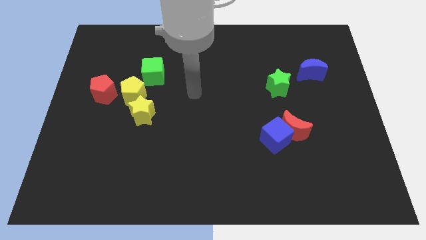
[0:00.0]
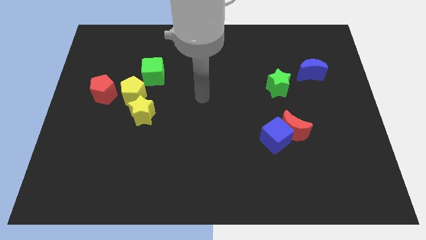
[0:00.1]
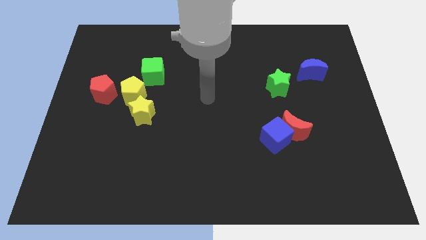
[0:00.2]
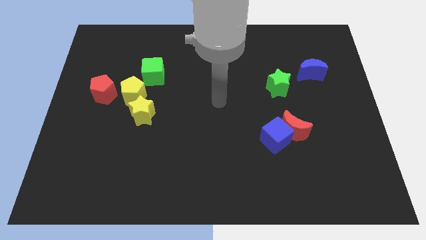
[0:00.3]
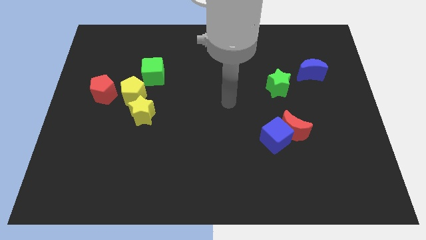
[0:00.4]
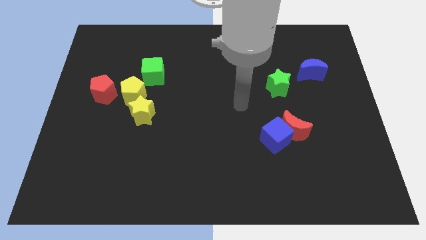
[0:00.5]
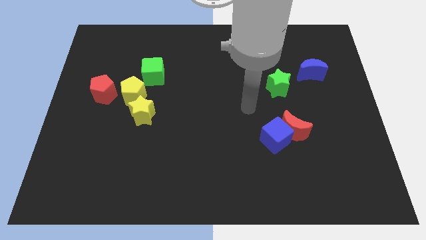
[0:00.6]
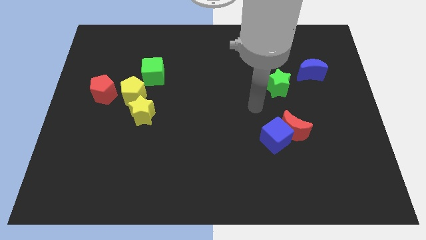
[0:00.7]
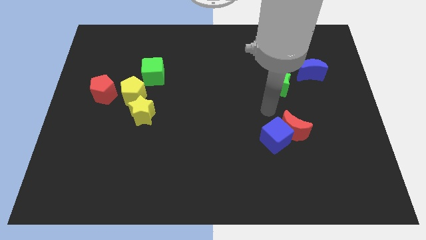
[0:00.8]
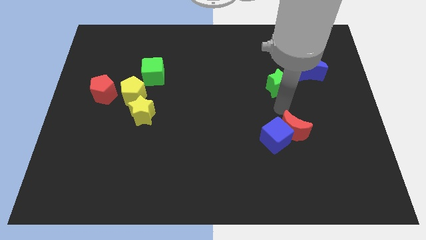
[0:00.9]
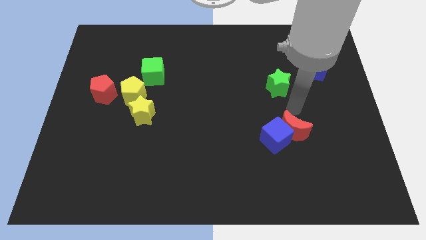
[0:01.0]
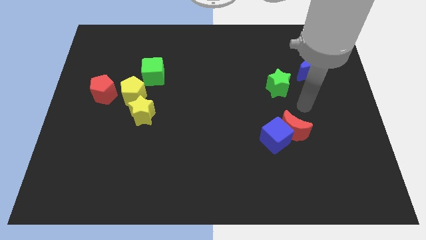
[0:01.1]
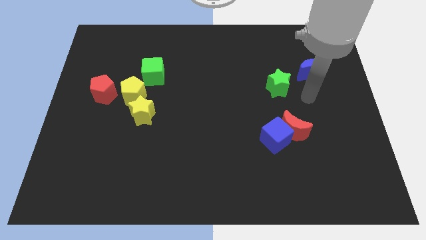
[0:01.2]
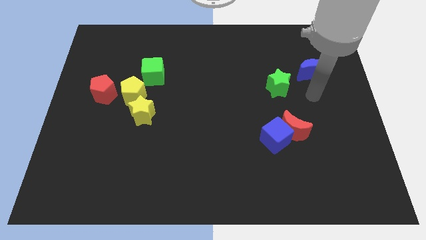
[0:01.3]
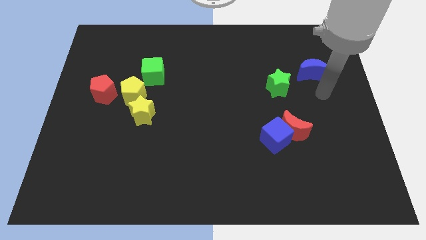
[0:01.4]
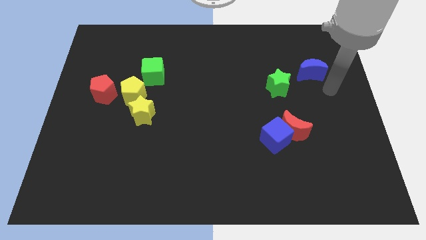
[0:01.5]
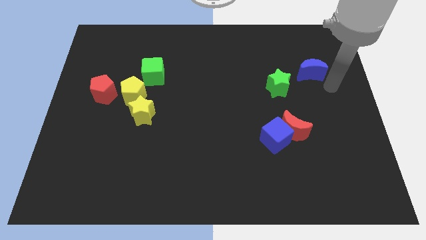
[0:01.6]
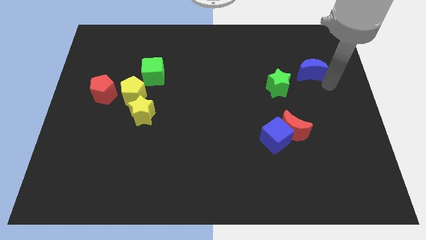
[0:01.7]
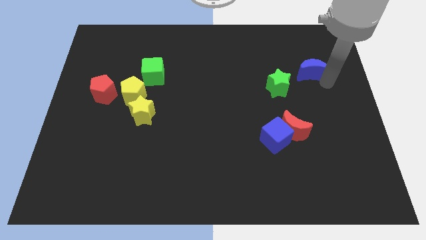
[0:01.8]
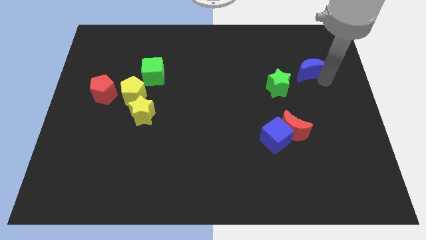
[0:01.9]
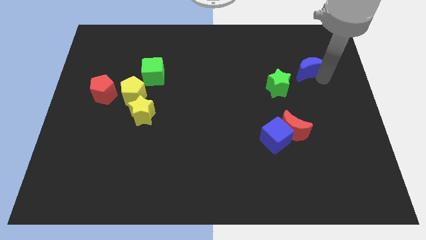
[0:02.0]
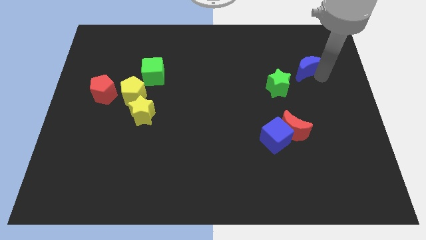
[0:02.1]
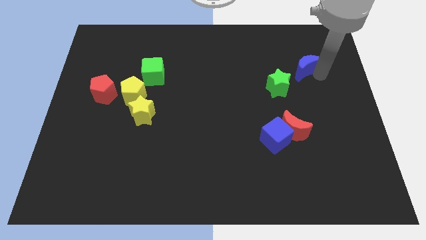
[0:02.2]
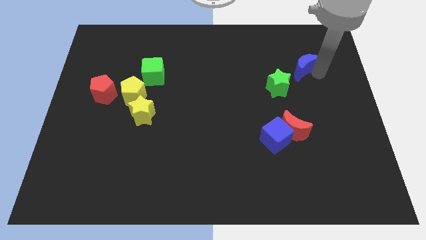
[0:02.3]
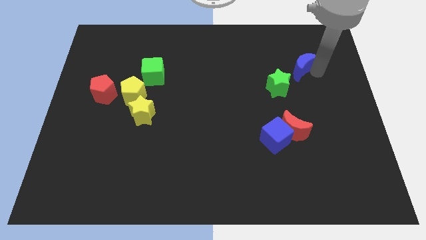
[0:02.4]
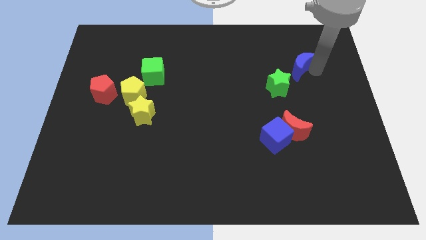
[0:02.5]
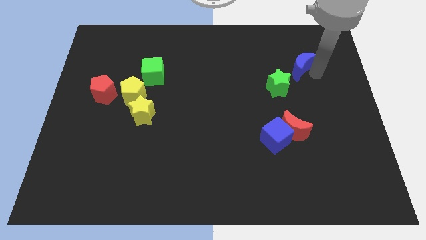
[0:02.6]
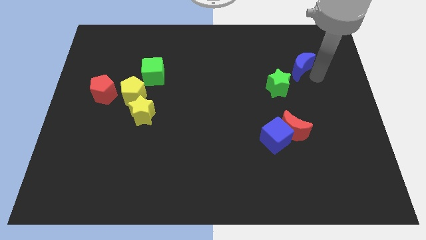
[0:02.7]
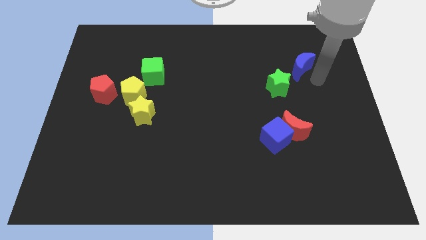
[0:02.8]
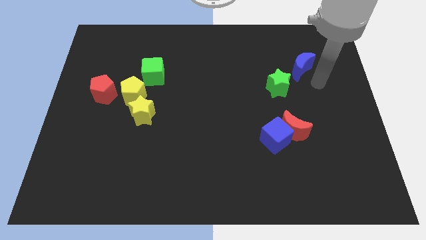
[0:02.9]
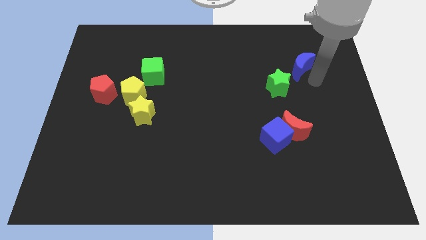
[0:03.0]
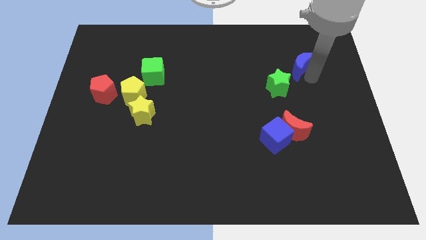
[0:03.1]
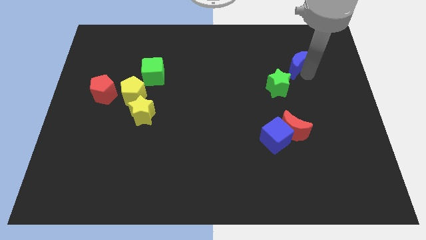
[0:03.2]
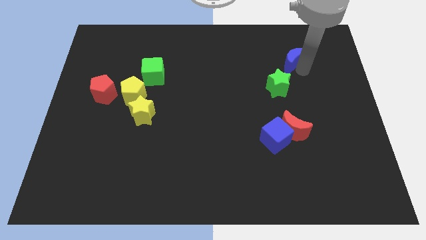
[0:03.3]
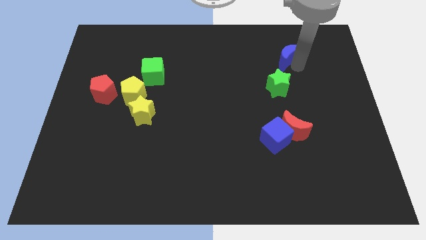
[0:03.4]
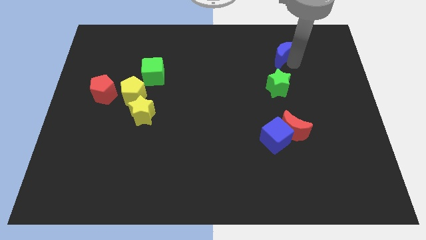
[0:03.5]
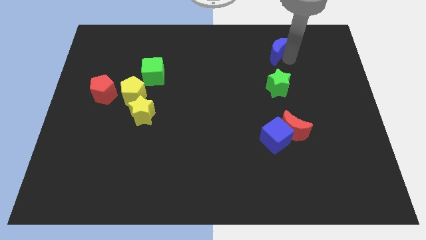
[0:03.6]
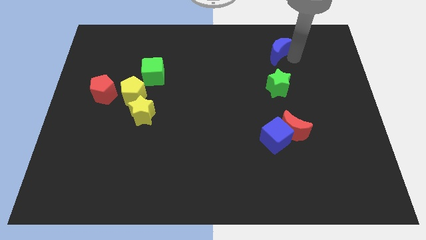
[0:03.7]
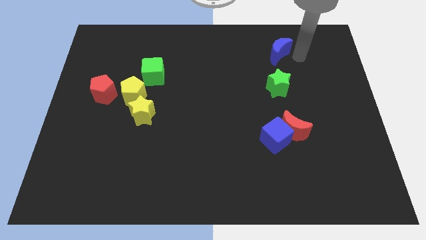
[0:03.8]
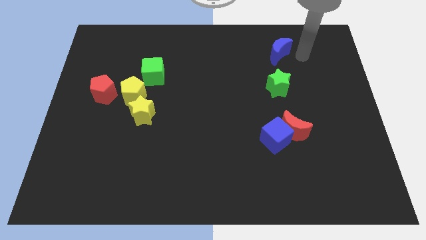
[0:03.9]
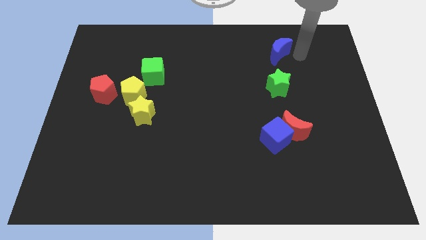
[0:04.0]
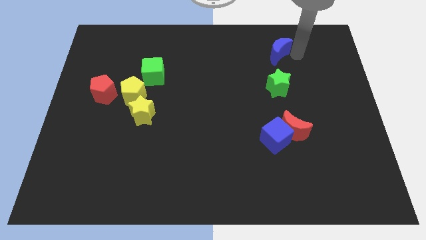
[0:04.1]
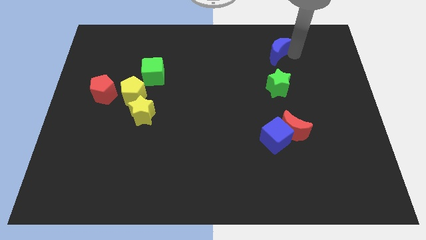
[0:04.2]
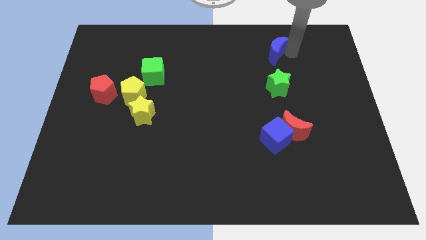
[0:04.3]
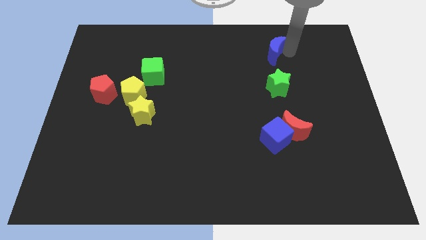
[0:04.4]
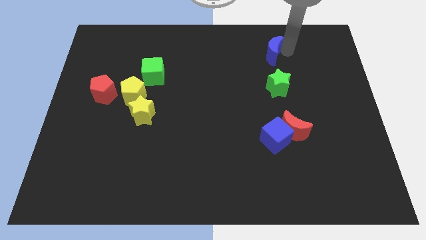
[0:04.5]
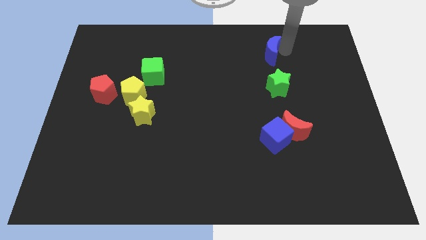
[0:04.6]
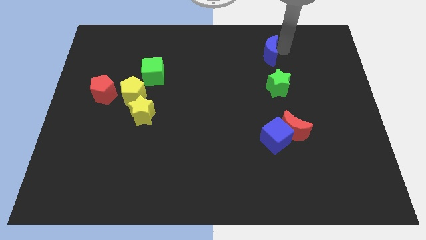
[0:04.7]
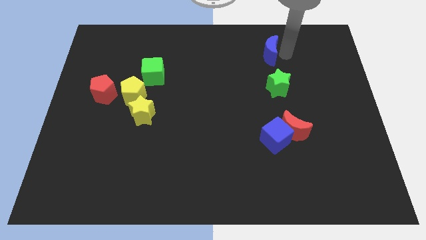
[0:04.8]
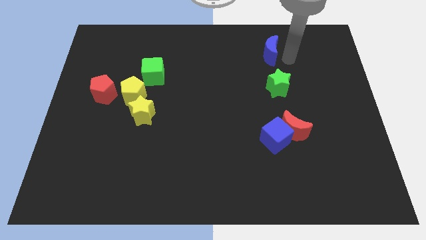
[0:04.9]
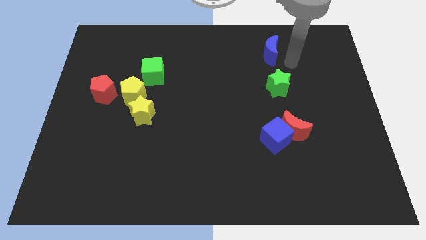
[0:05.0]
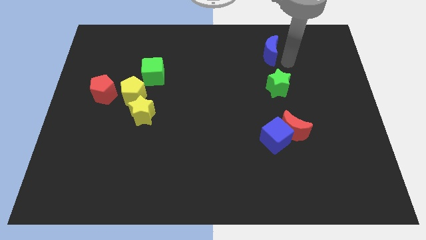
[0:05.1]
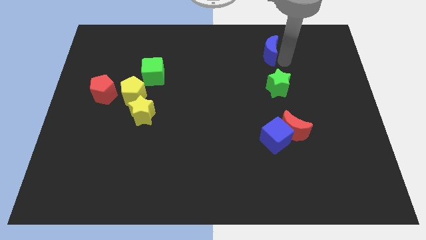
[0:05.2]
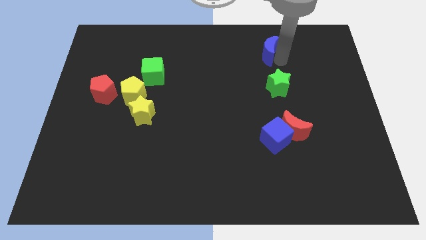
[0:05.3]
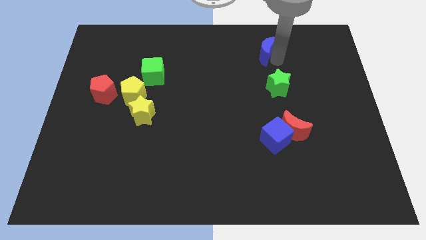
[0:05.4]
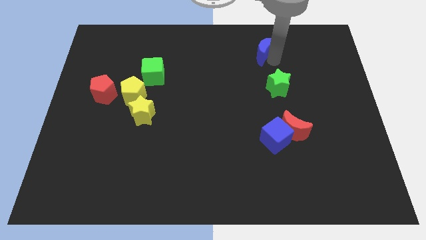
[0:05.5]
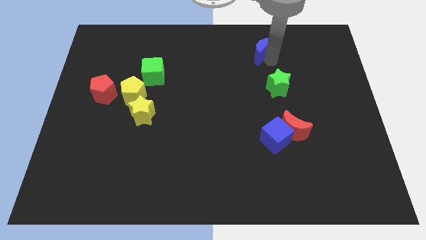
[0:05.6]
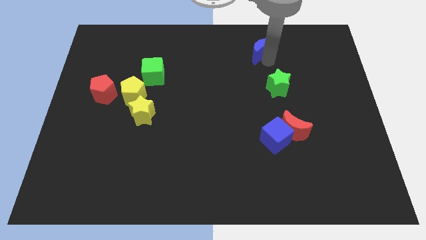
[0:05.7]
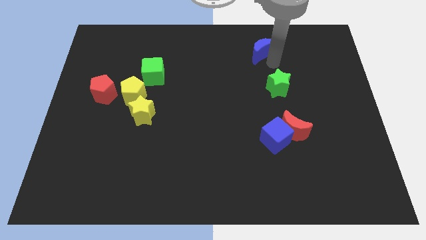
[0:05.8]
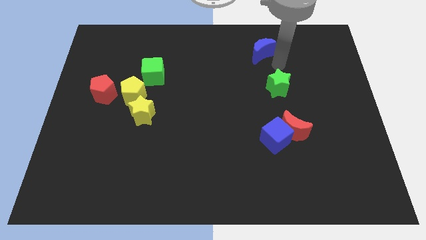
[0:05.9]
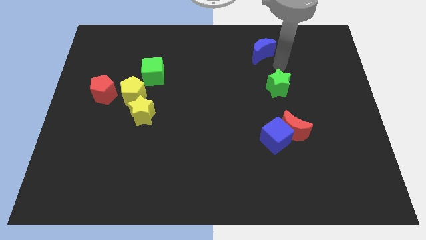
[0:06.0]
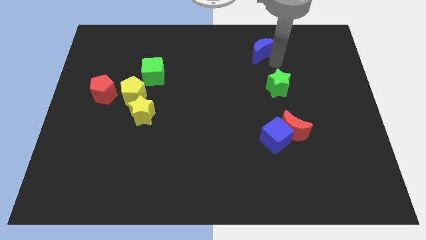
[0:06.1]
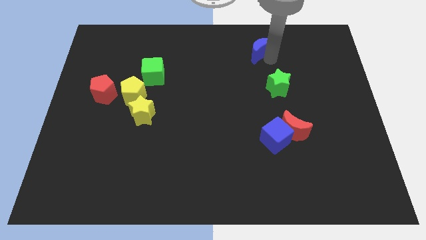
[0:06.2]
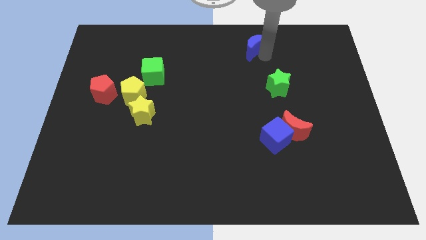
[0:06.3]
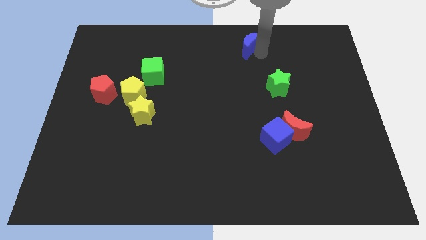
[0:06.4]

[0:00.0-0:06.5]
put the blue moon to the top side

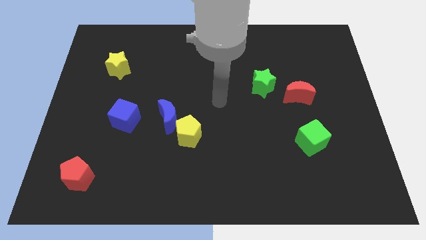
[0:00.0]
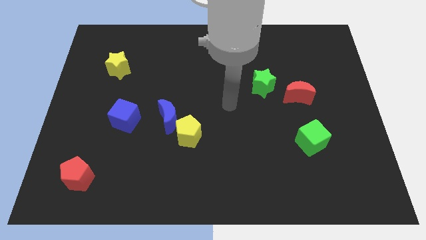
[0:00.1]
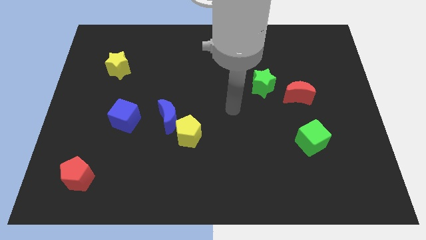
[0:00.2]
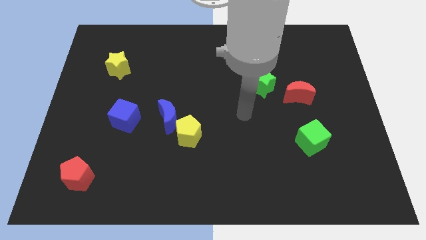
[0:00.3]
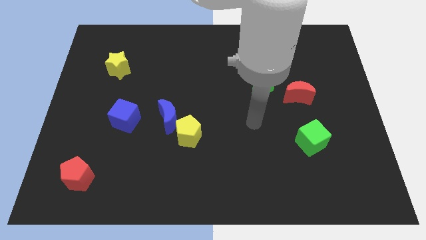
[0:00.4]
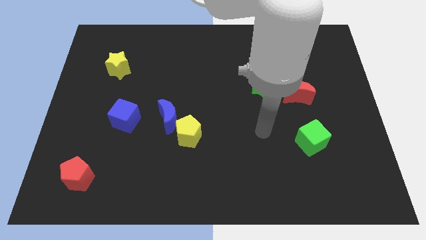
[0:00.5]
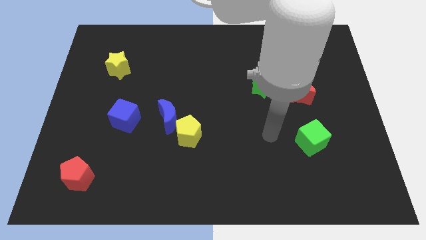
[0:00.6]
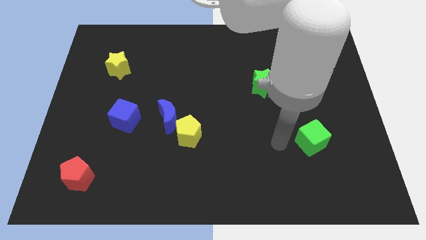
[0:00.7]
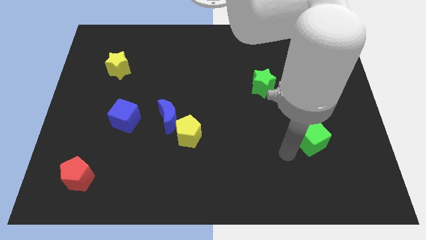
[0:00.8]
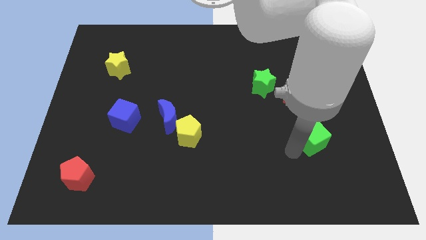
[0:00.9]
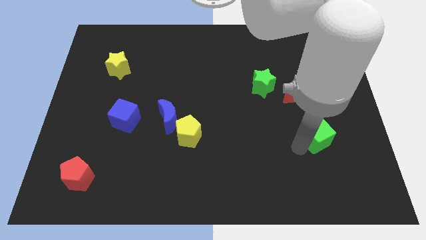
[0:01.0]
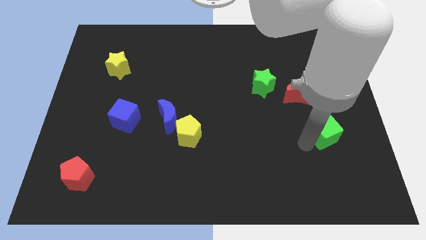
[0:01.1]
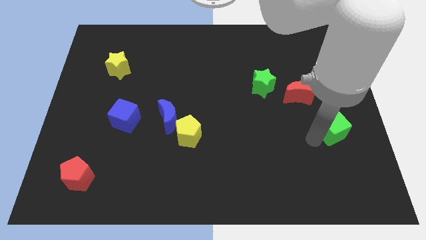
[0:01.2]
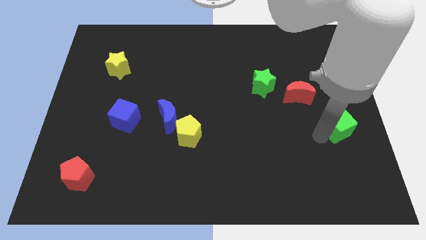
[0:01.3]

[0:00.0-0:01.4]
put the green cube to the right side

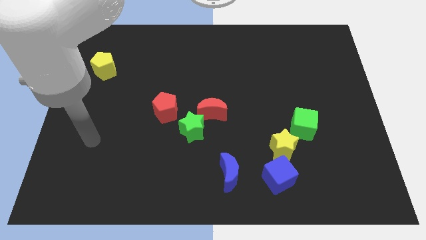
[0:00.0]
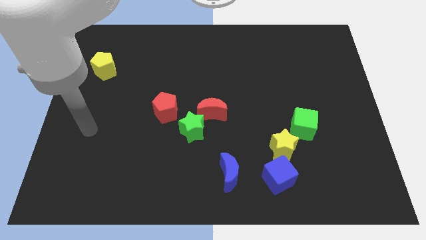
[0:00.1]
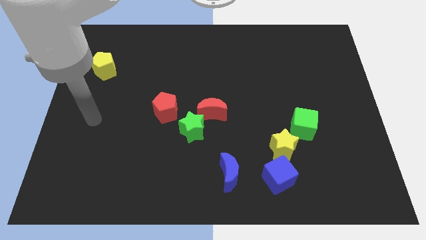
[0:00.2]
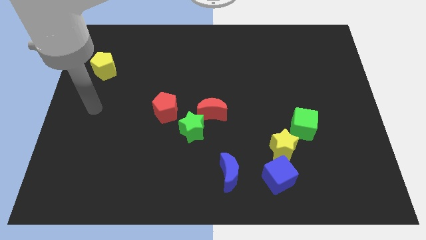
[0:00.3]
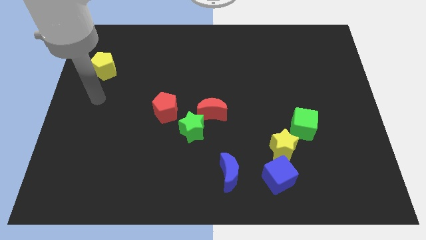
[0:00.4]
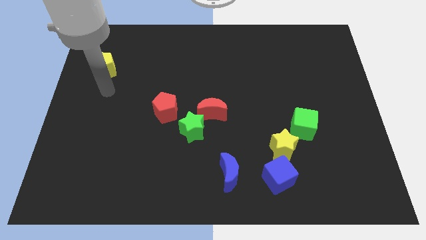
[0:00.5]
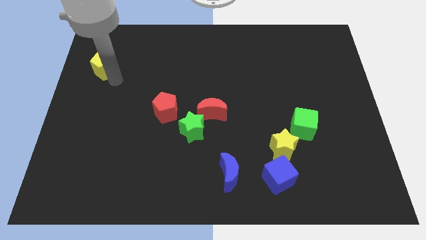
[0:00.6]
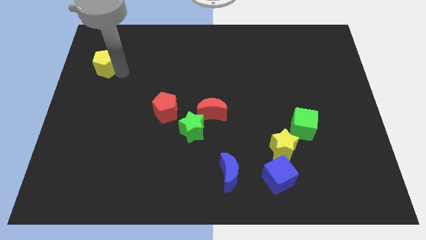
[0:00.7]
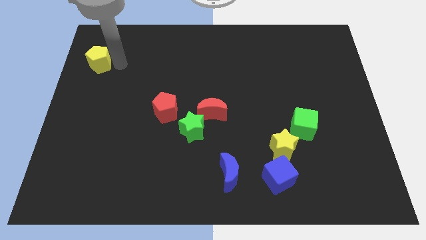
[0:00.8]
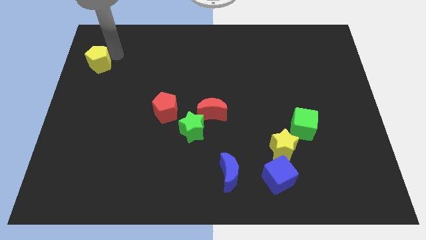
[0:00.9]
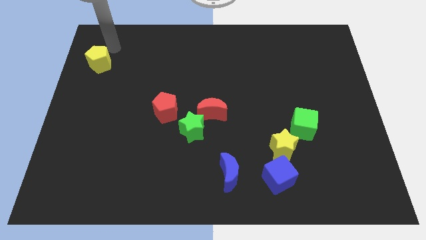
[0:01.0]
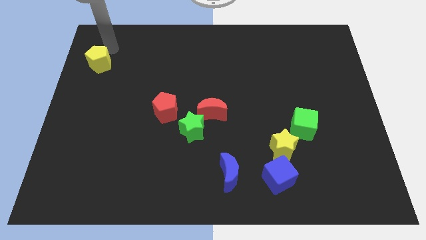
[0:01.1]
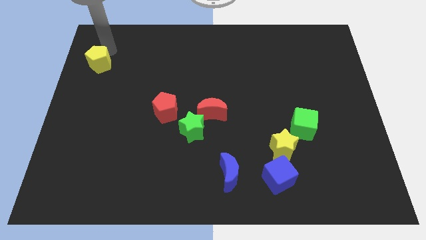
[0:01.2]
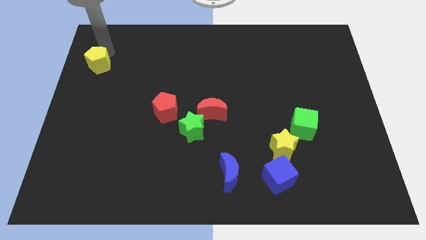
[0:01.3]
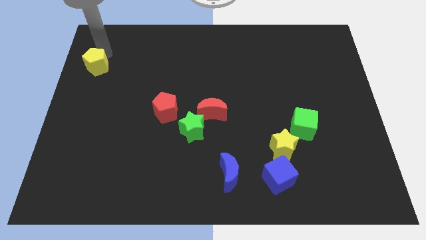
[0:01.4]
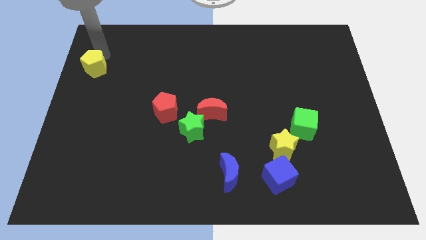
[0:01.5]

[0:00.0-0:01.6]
push the yellow pentagon to the left side
